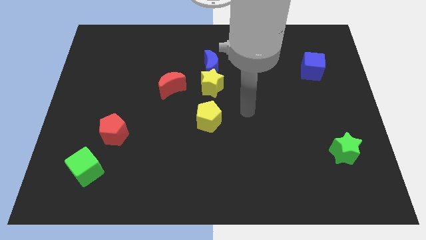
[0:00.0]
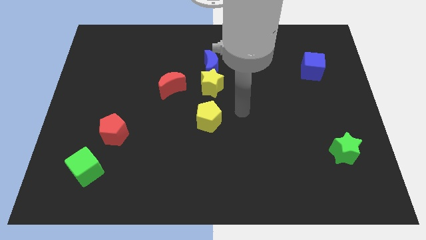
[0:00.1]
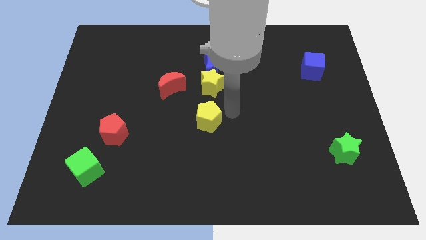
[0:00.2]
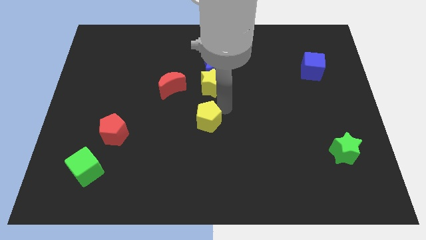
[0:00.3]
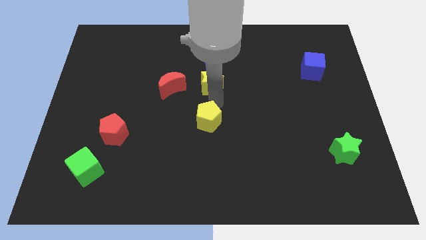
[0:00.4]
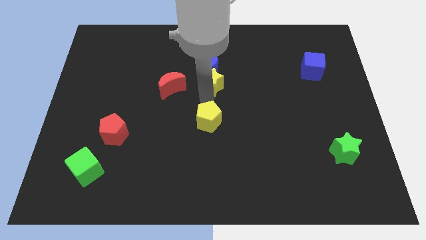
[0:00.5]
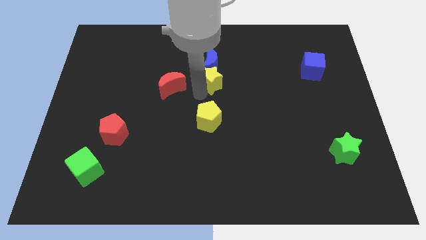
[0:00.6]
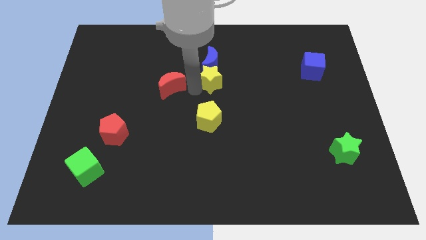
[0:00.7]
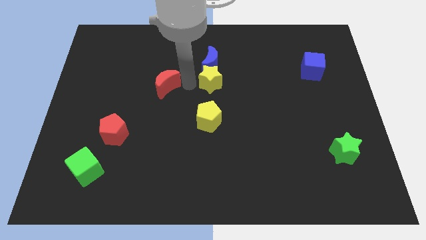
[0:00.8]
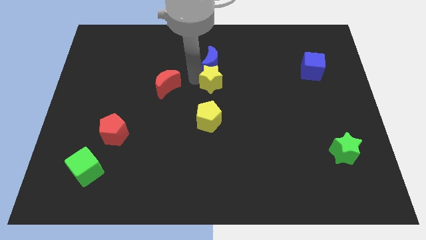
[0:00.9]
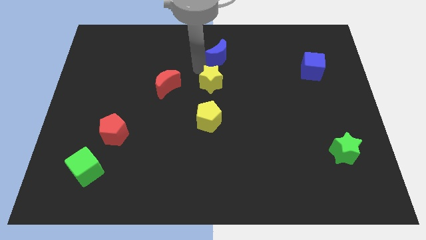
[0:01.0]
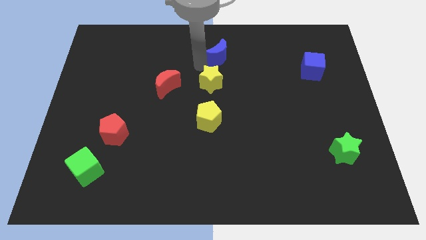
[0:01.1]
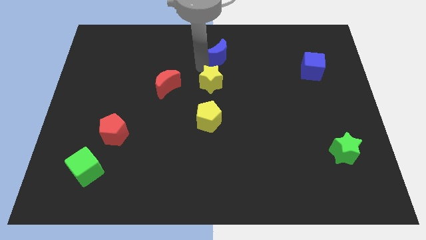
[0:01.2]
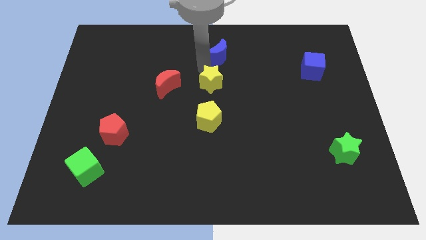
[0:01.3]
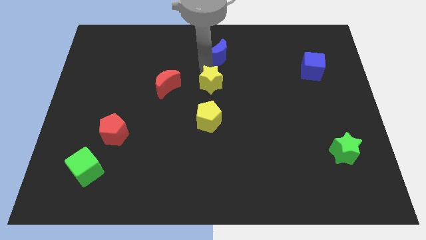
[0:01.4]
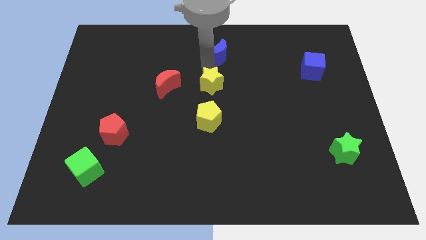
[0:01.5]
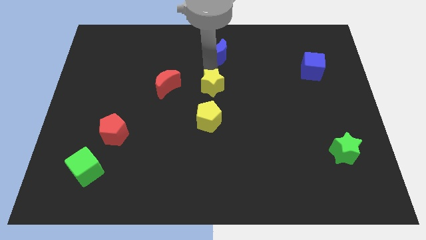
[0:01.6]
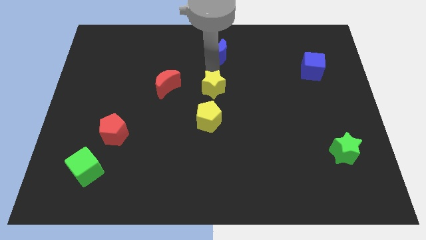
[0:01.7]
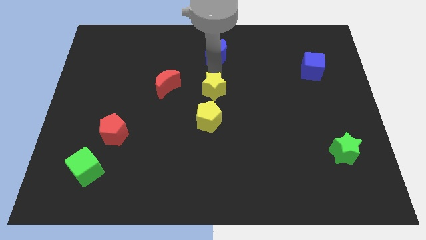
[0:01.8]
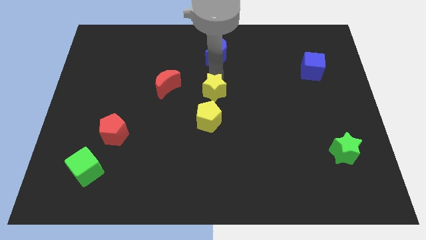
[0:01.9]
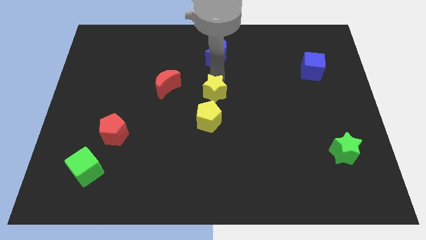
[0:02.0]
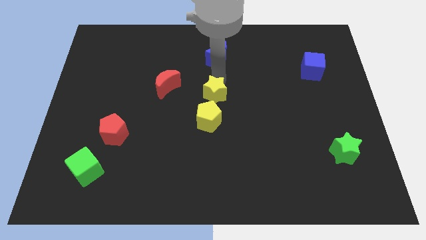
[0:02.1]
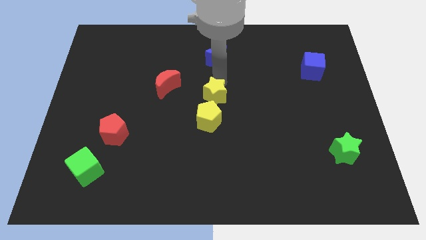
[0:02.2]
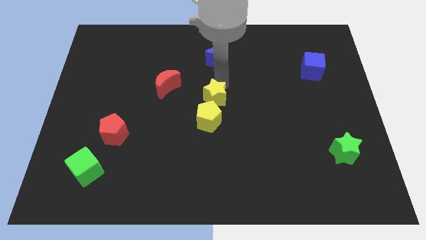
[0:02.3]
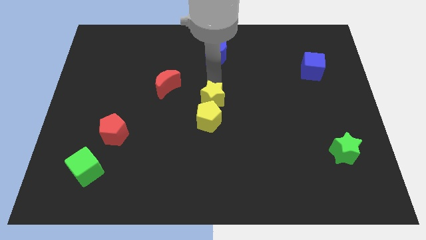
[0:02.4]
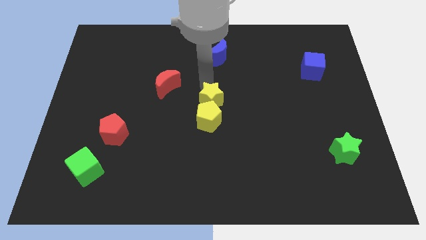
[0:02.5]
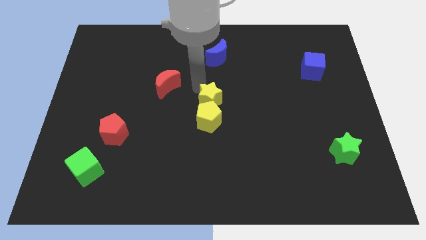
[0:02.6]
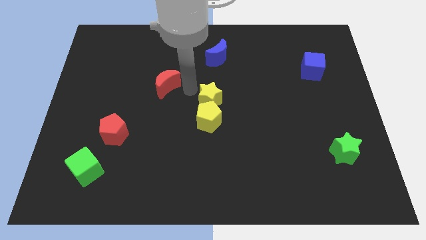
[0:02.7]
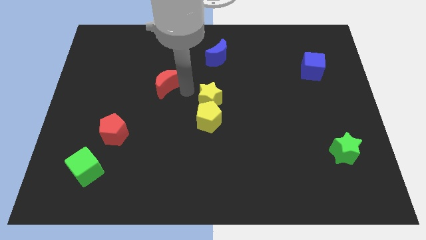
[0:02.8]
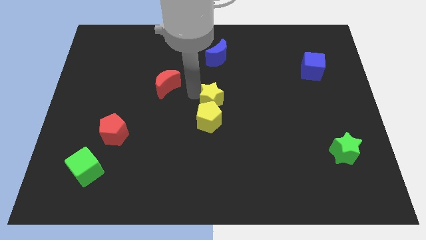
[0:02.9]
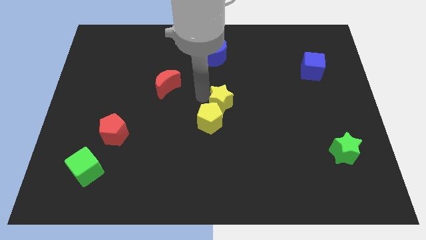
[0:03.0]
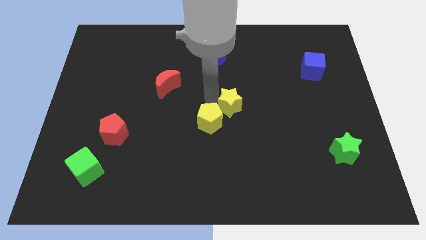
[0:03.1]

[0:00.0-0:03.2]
slide the yellow star slightly down and right diagonally

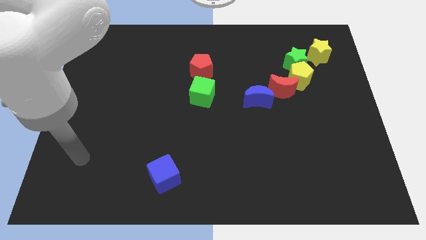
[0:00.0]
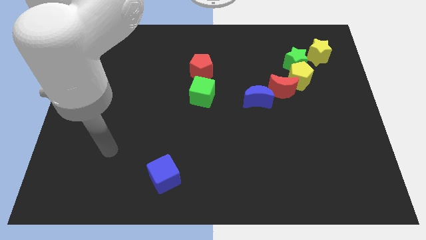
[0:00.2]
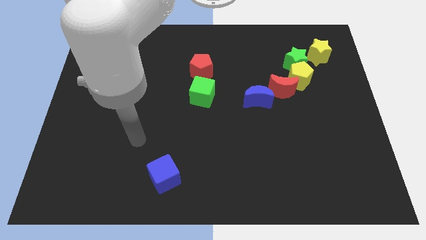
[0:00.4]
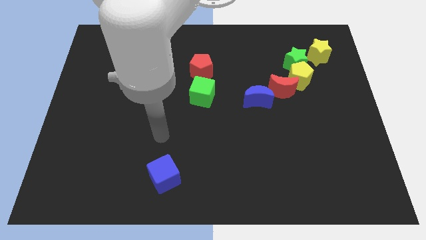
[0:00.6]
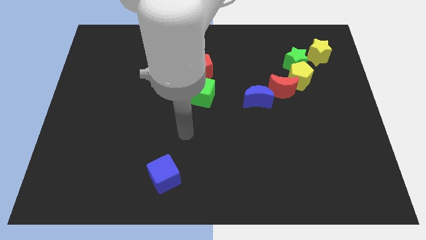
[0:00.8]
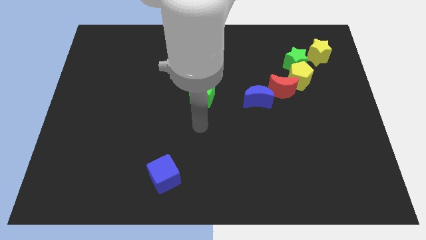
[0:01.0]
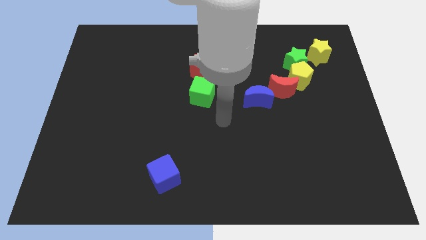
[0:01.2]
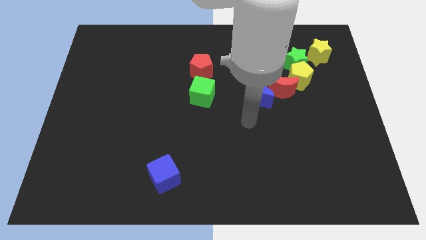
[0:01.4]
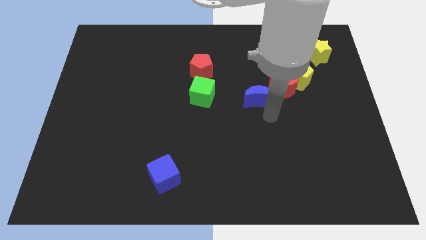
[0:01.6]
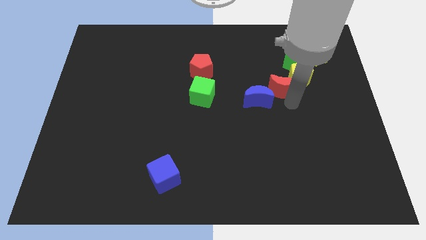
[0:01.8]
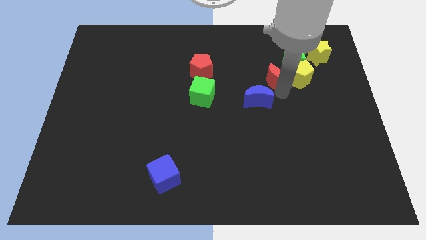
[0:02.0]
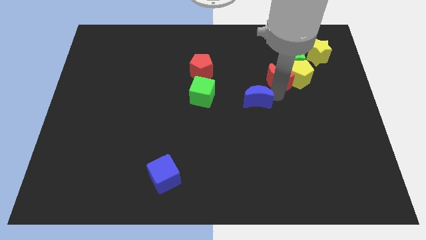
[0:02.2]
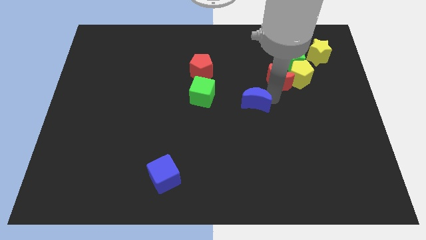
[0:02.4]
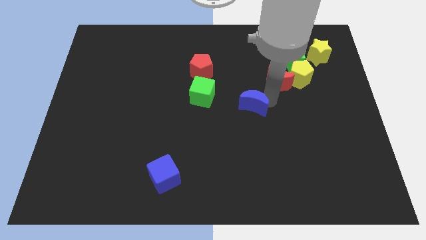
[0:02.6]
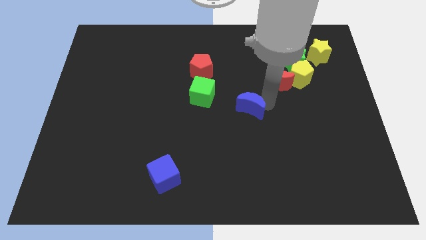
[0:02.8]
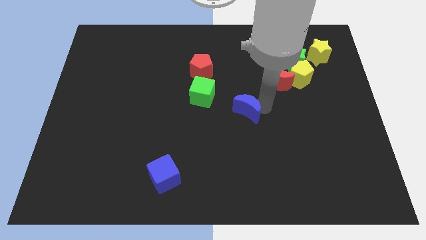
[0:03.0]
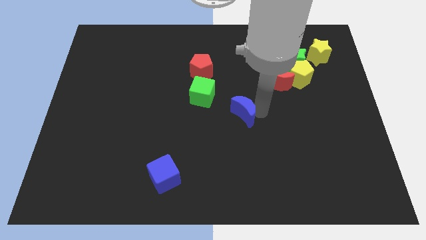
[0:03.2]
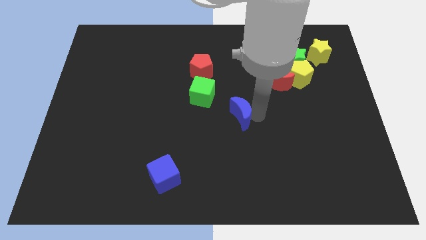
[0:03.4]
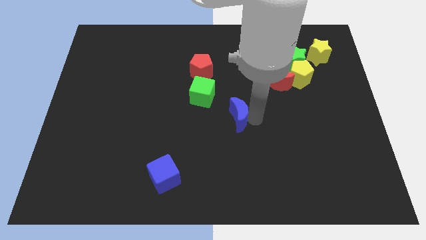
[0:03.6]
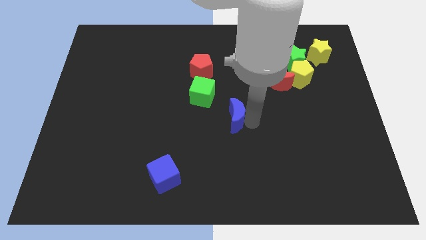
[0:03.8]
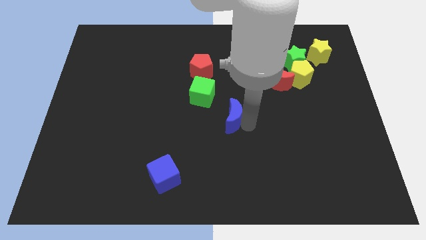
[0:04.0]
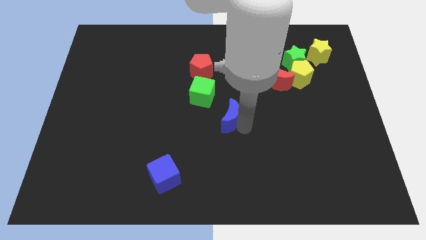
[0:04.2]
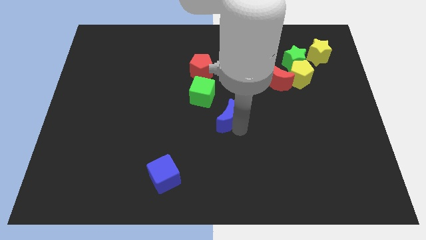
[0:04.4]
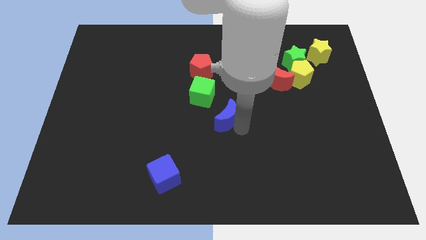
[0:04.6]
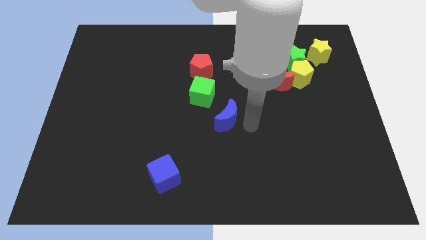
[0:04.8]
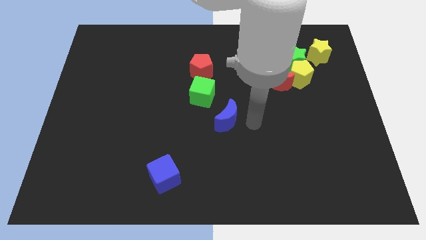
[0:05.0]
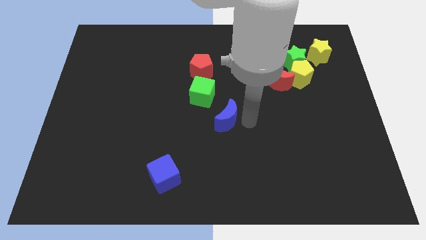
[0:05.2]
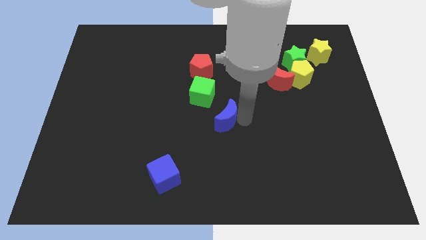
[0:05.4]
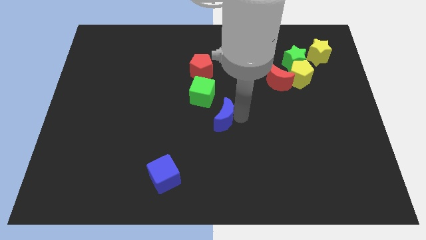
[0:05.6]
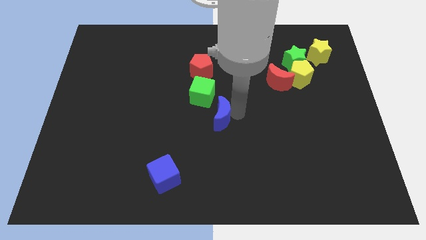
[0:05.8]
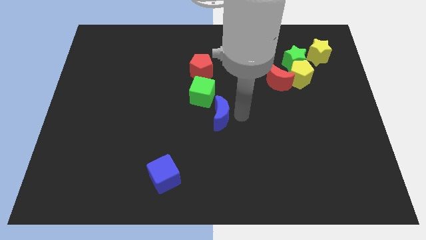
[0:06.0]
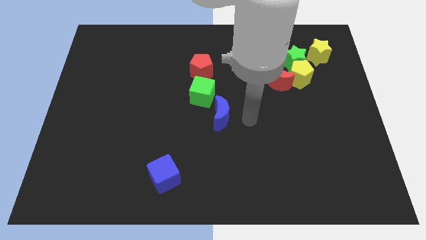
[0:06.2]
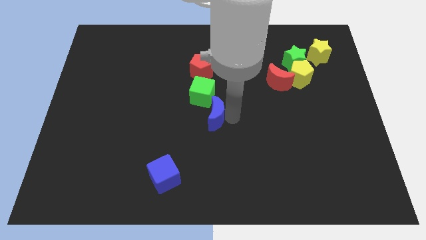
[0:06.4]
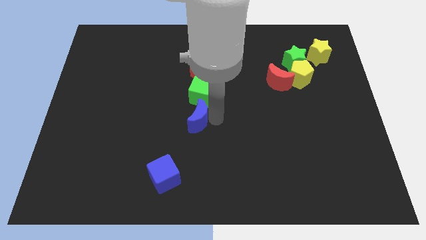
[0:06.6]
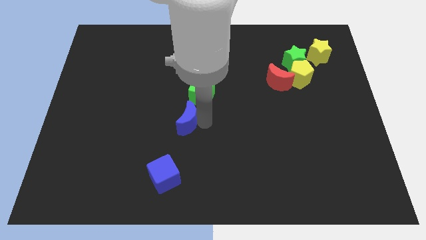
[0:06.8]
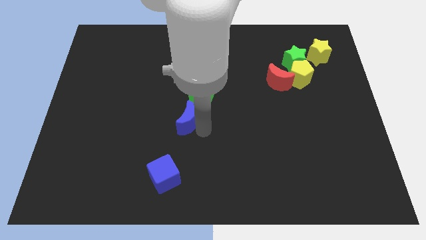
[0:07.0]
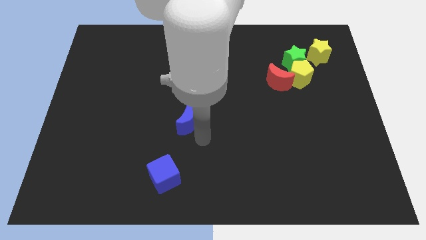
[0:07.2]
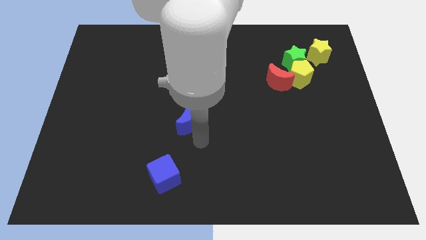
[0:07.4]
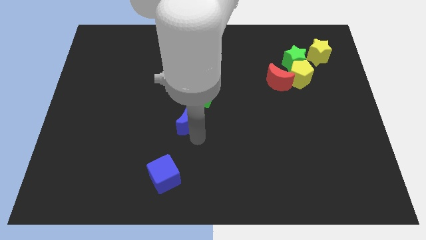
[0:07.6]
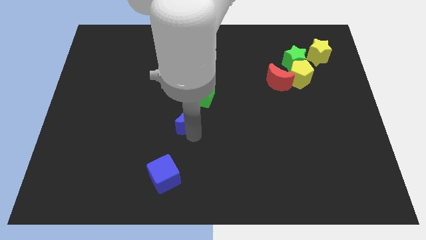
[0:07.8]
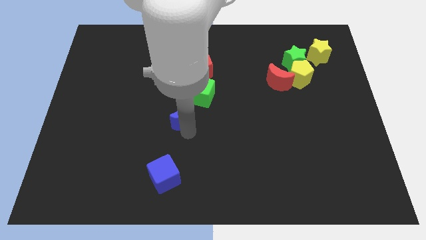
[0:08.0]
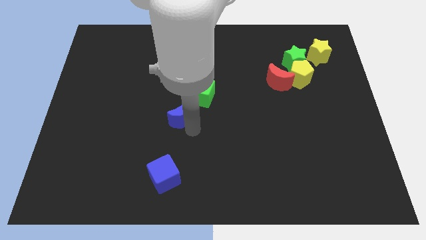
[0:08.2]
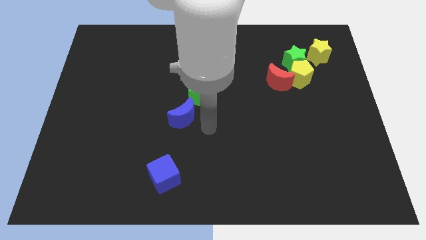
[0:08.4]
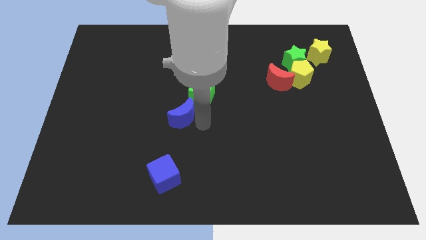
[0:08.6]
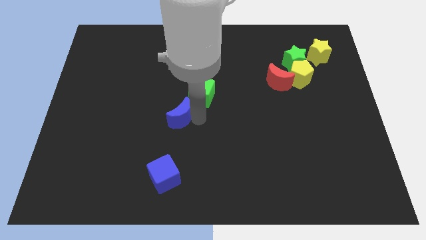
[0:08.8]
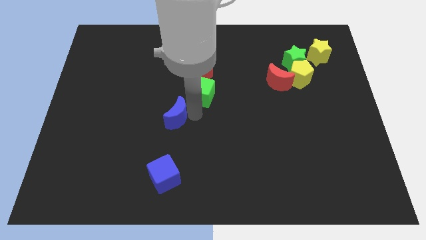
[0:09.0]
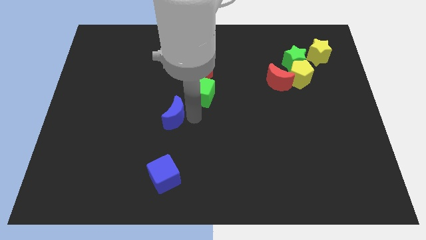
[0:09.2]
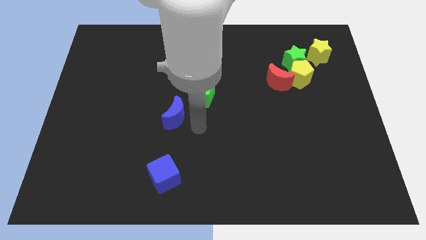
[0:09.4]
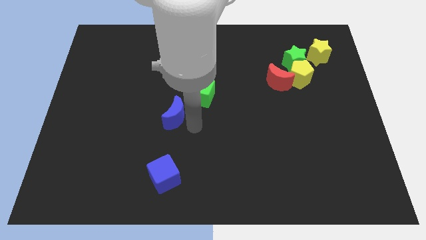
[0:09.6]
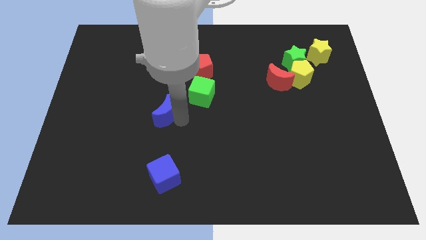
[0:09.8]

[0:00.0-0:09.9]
move the blue moon to the left
